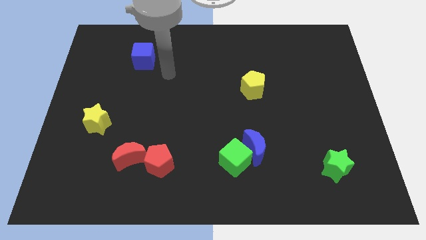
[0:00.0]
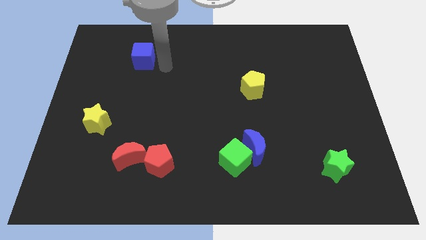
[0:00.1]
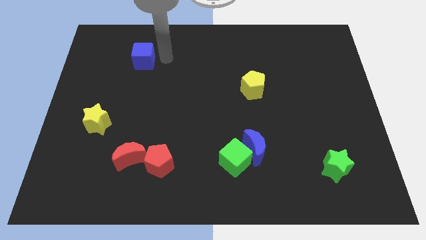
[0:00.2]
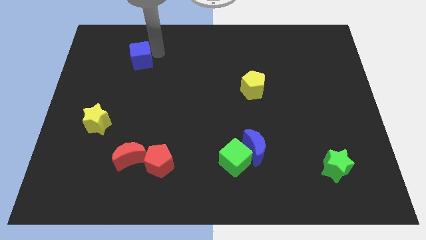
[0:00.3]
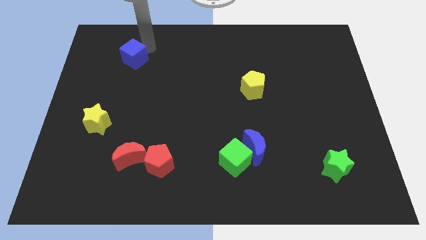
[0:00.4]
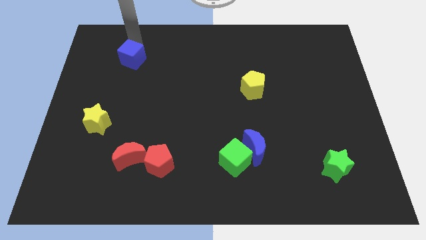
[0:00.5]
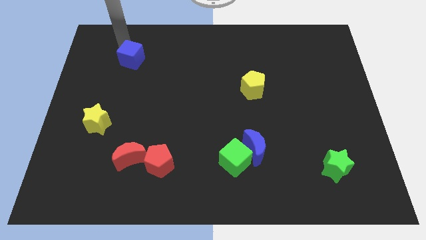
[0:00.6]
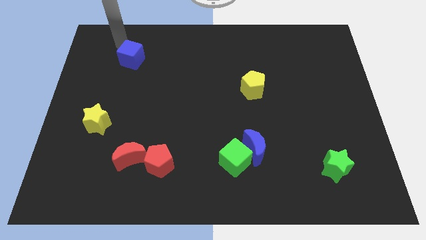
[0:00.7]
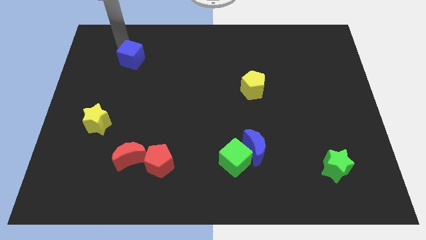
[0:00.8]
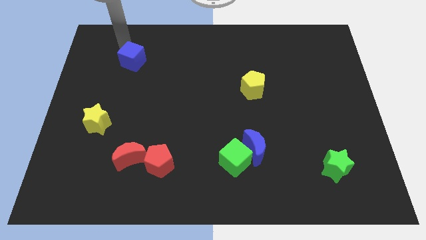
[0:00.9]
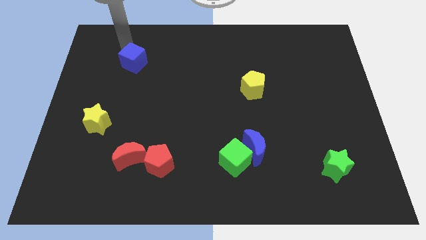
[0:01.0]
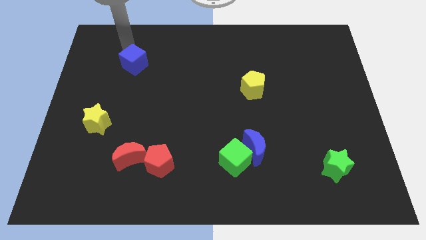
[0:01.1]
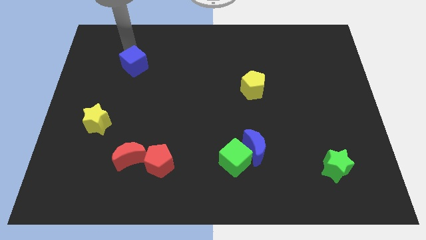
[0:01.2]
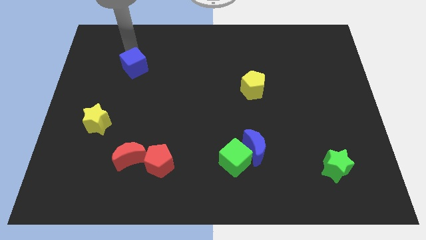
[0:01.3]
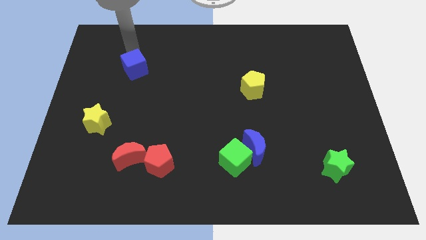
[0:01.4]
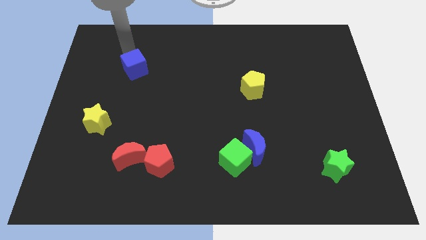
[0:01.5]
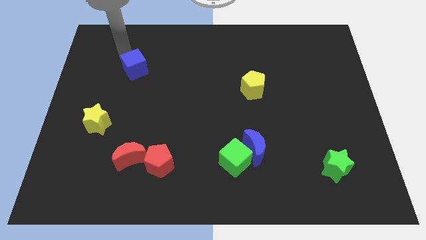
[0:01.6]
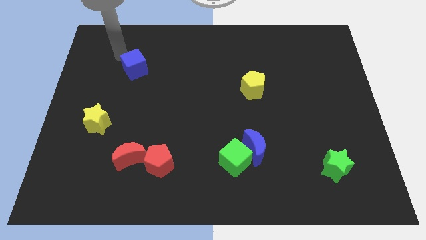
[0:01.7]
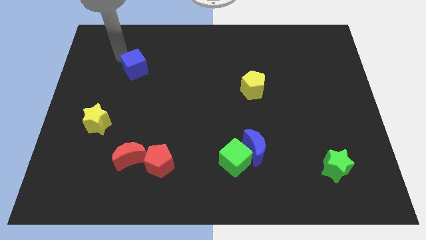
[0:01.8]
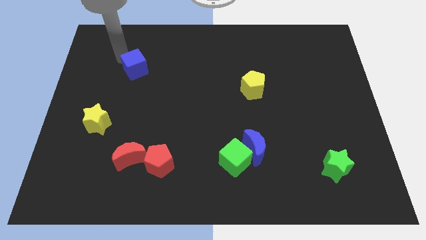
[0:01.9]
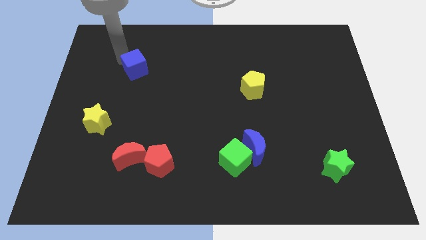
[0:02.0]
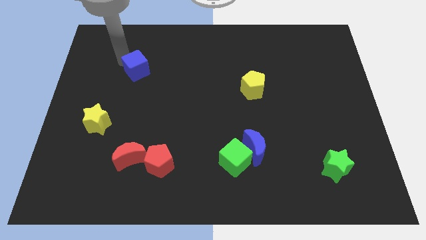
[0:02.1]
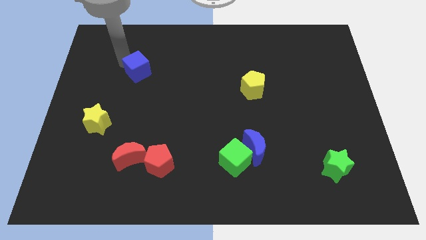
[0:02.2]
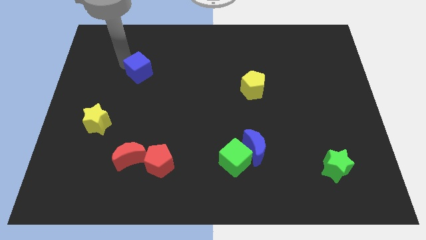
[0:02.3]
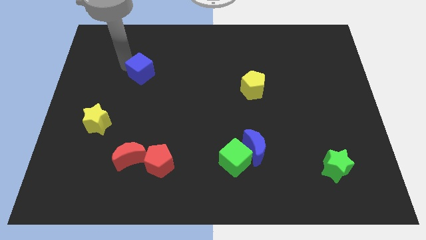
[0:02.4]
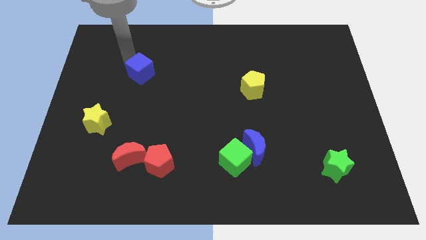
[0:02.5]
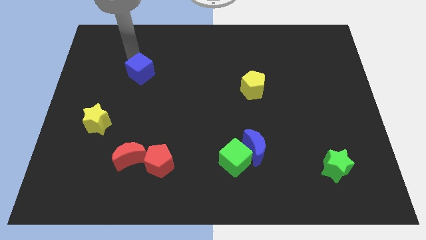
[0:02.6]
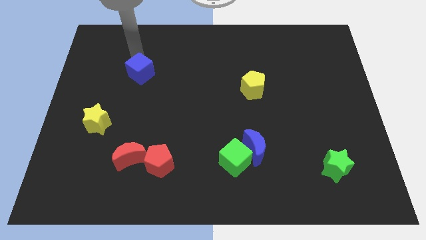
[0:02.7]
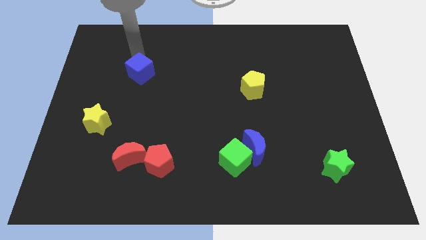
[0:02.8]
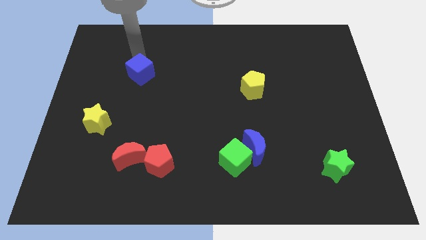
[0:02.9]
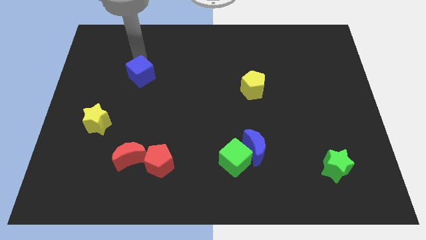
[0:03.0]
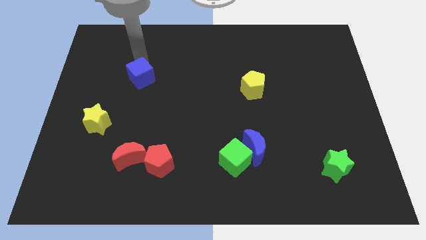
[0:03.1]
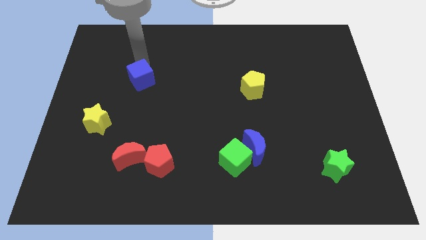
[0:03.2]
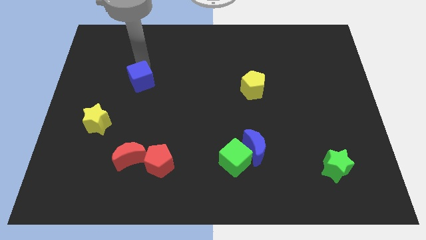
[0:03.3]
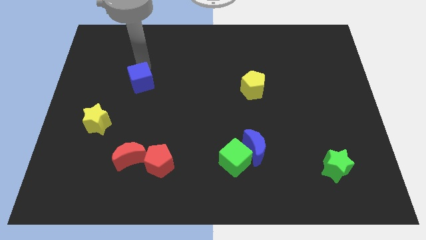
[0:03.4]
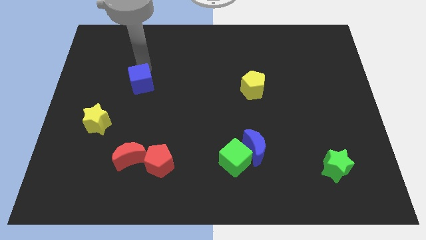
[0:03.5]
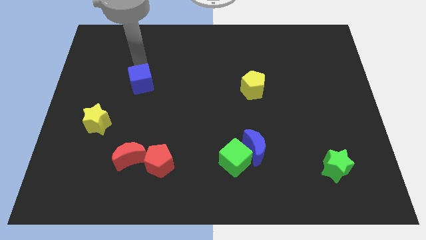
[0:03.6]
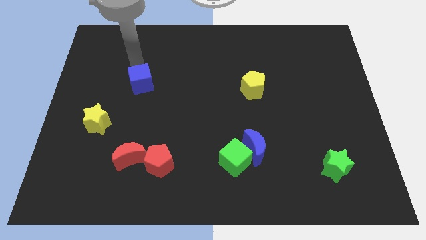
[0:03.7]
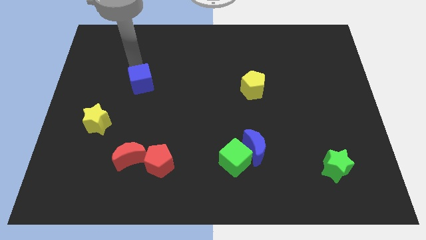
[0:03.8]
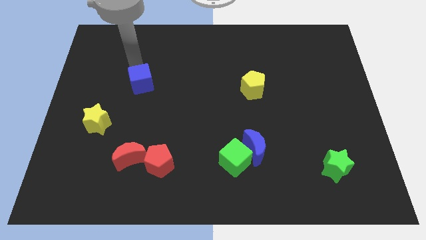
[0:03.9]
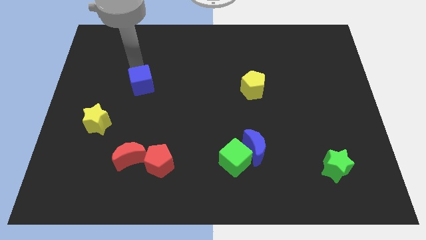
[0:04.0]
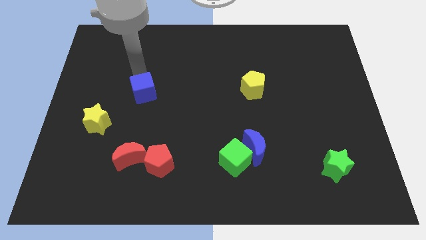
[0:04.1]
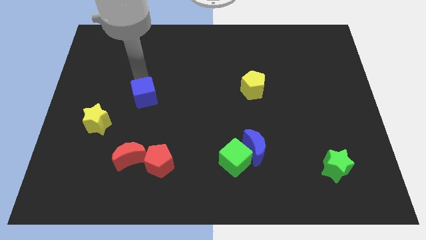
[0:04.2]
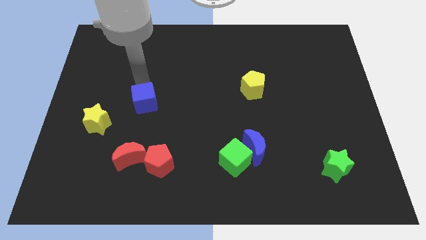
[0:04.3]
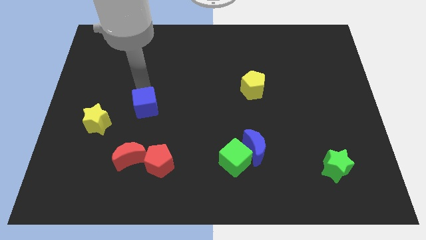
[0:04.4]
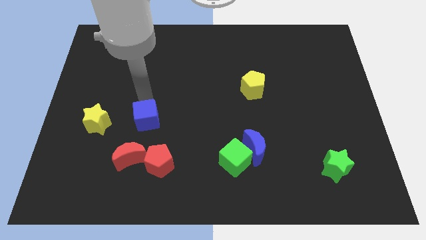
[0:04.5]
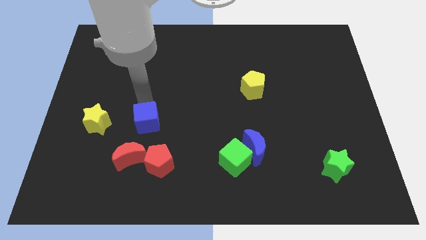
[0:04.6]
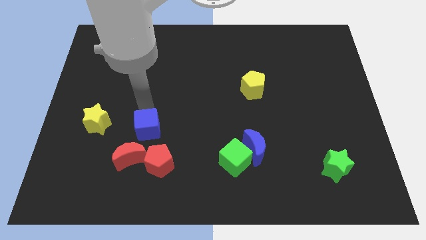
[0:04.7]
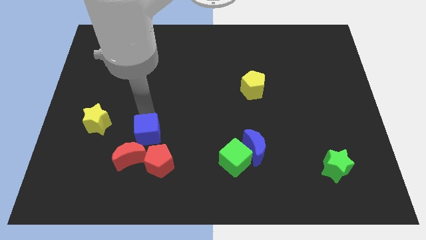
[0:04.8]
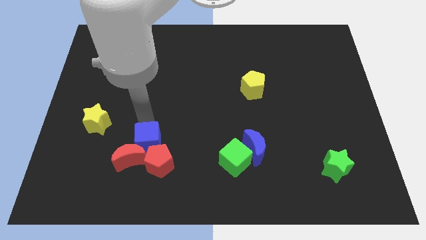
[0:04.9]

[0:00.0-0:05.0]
move the blue cube to the red pentagon

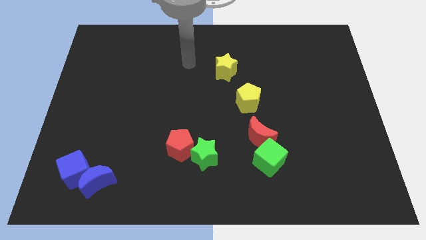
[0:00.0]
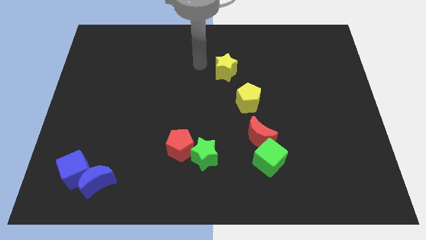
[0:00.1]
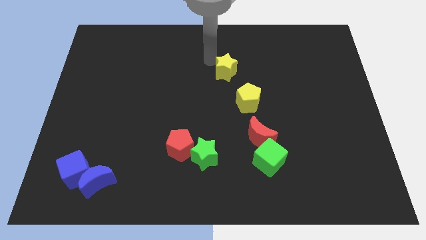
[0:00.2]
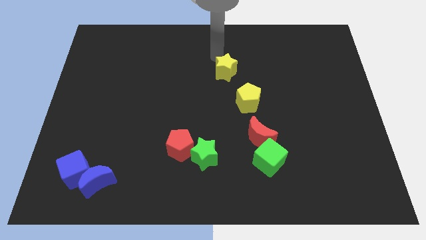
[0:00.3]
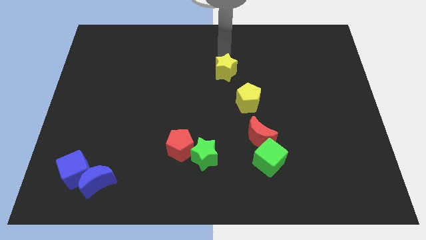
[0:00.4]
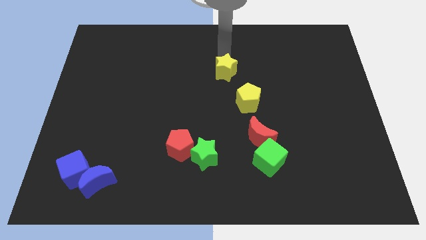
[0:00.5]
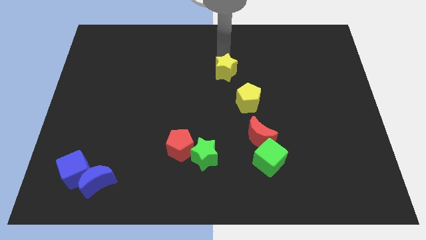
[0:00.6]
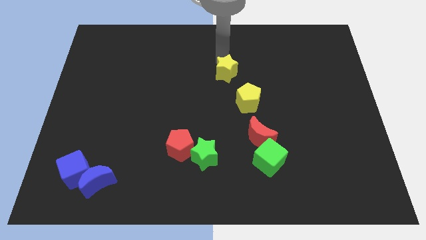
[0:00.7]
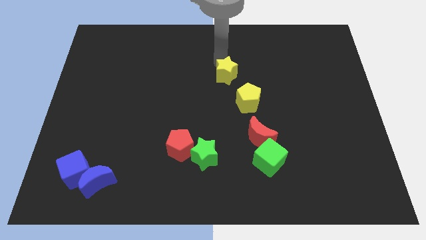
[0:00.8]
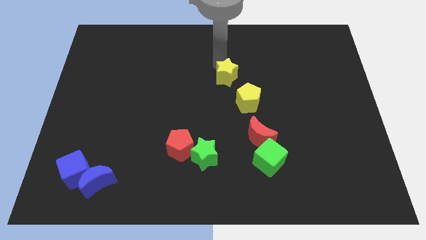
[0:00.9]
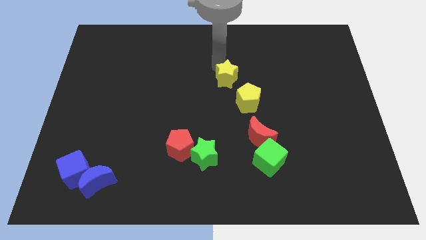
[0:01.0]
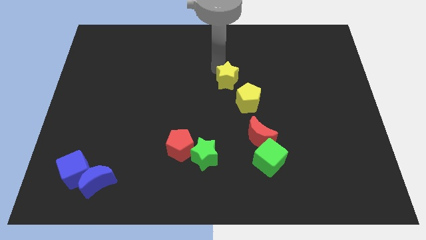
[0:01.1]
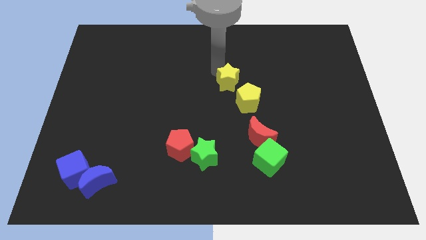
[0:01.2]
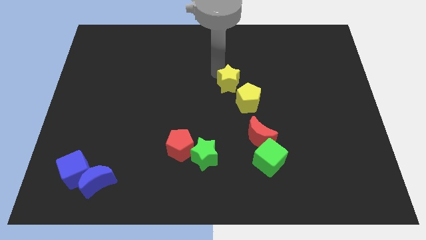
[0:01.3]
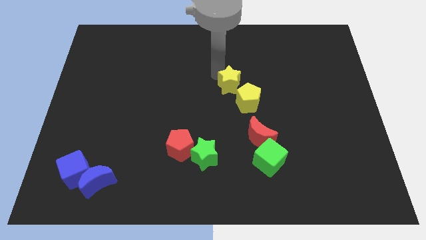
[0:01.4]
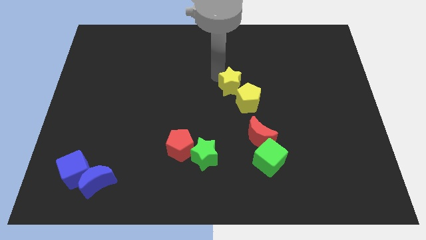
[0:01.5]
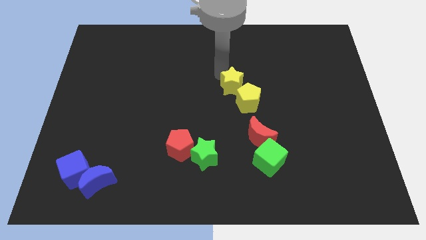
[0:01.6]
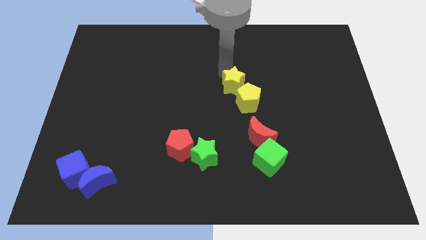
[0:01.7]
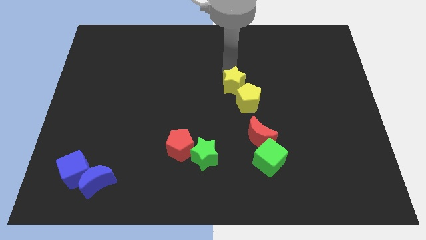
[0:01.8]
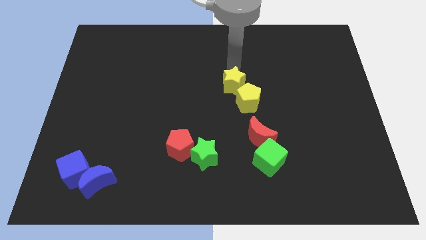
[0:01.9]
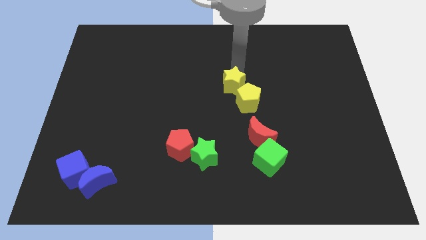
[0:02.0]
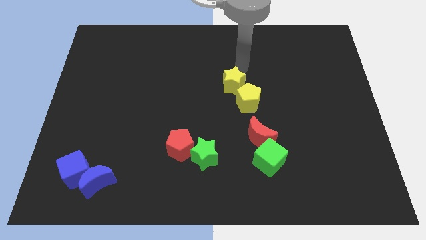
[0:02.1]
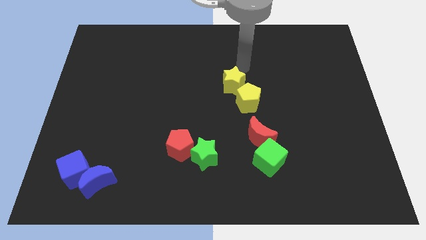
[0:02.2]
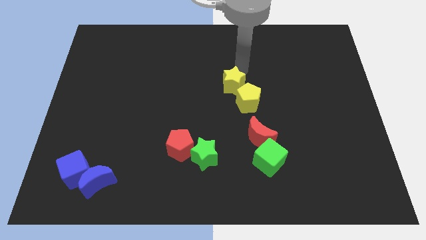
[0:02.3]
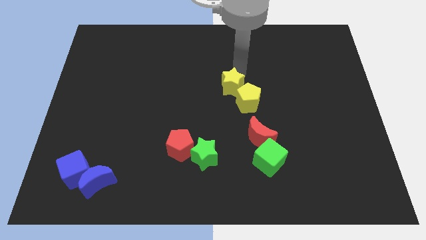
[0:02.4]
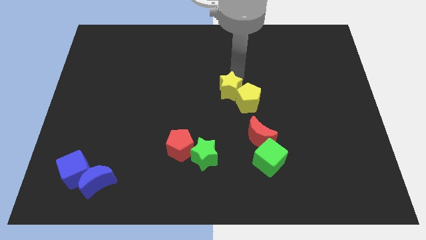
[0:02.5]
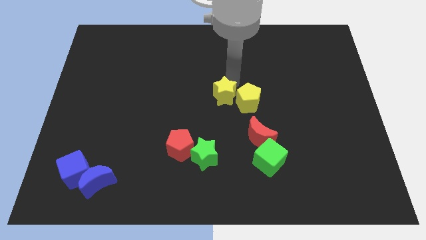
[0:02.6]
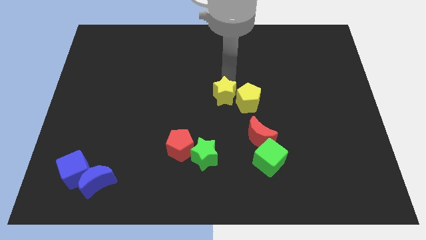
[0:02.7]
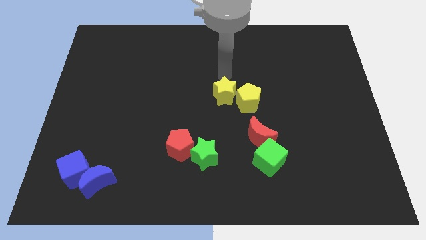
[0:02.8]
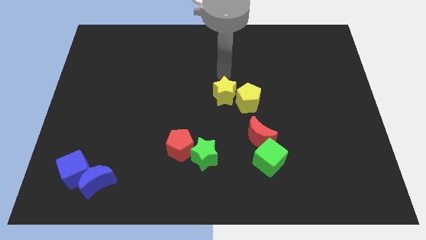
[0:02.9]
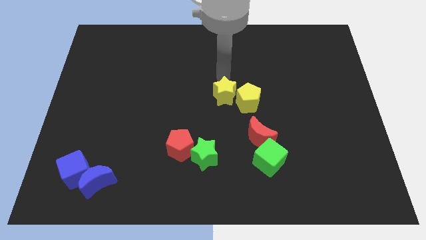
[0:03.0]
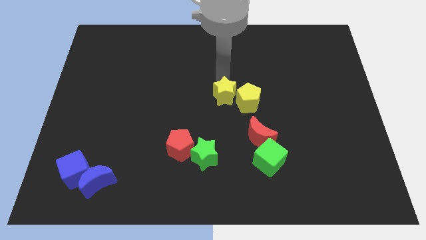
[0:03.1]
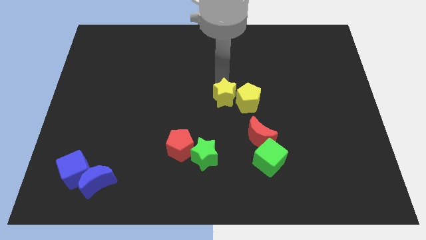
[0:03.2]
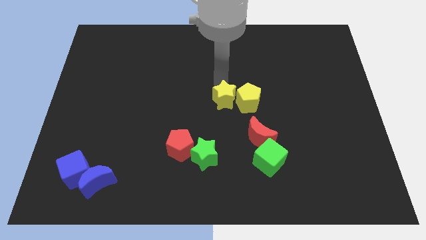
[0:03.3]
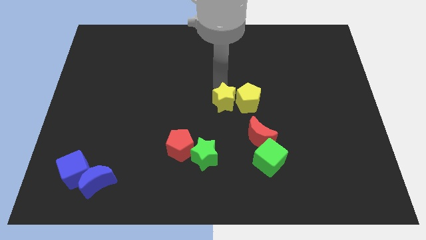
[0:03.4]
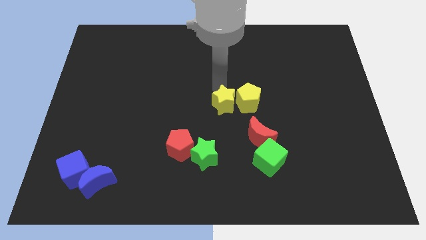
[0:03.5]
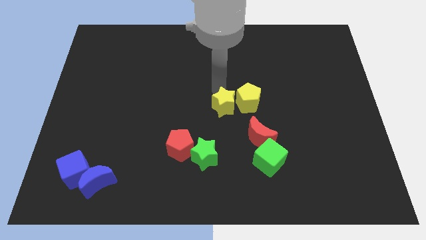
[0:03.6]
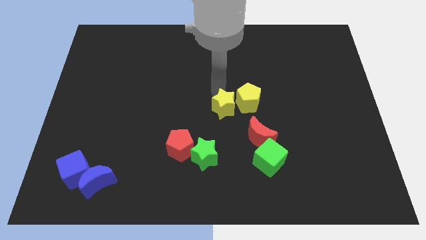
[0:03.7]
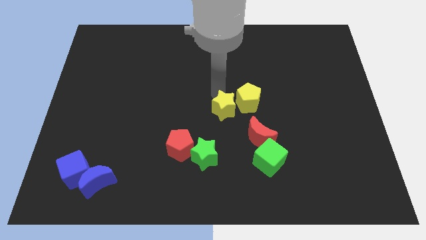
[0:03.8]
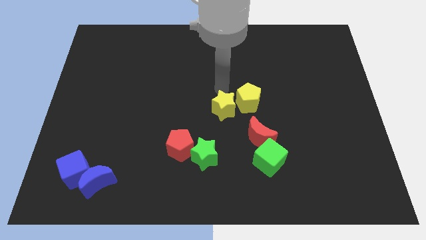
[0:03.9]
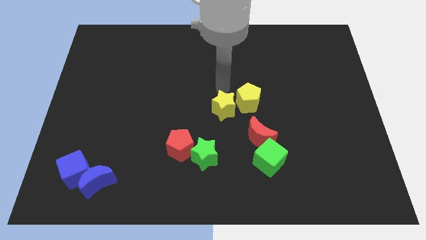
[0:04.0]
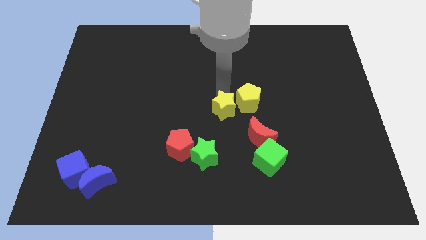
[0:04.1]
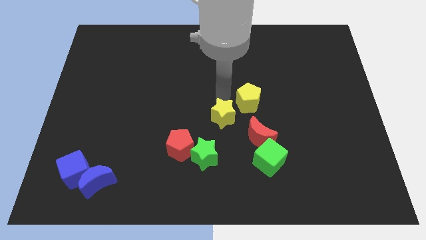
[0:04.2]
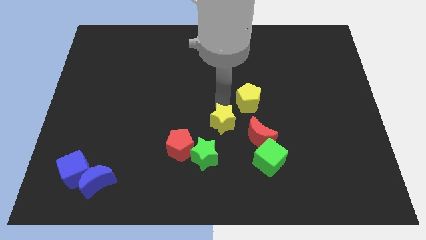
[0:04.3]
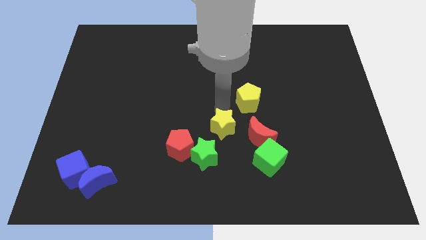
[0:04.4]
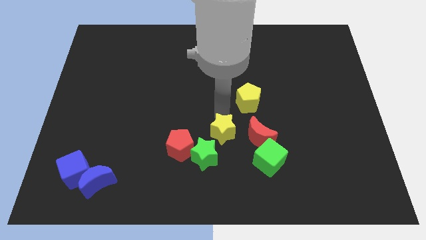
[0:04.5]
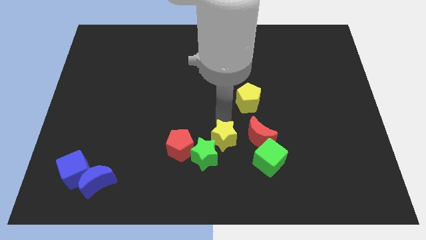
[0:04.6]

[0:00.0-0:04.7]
move the yellow star close to the green star
